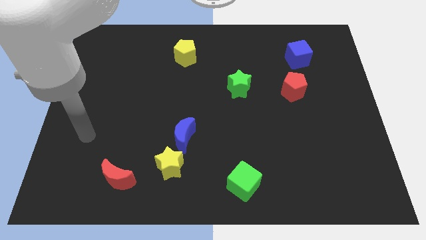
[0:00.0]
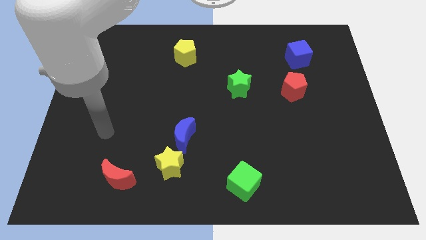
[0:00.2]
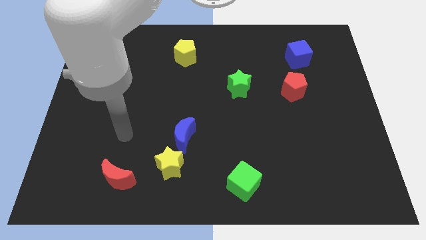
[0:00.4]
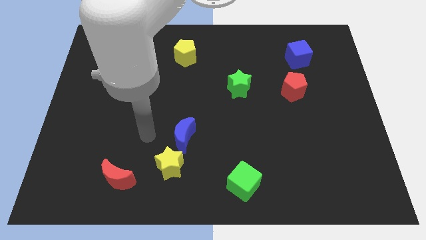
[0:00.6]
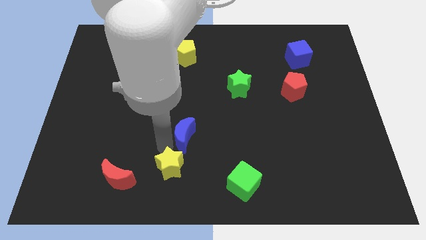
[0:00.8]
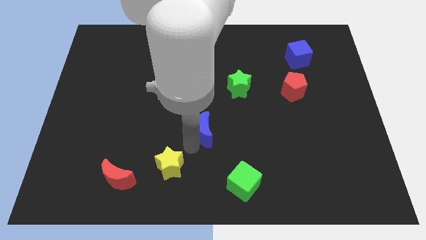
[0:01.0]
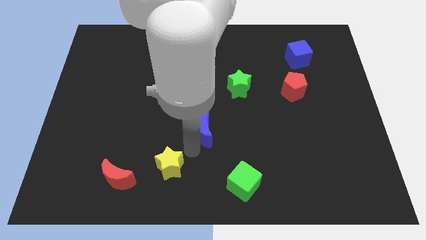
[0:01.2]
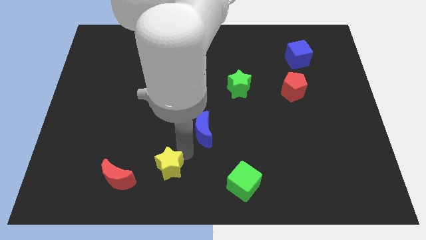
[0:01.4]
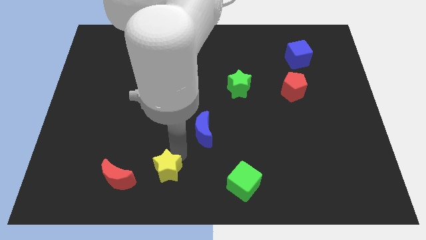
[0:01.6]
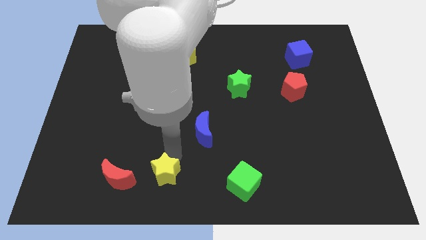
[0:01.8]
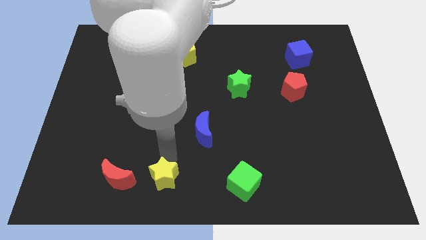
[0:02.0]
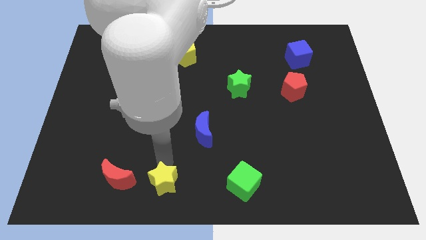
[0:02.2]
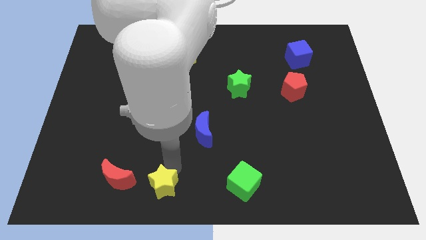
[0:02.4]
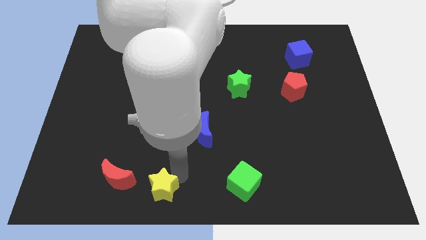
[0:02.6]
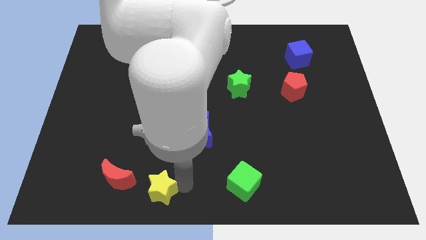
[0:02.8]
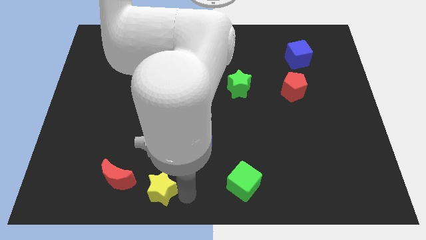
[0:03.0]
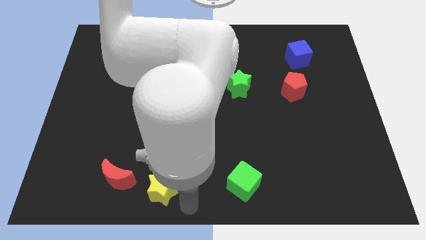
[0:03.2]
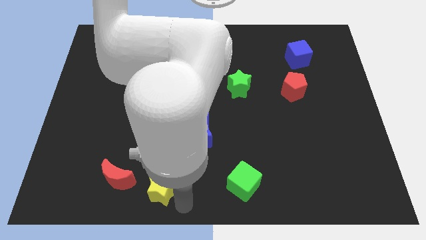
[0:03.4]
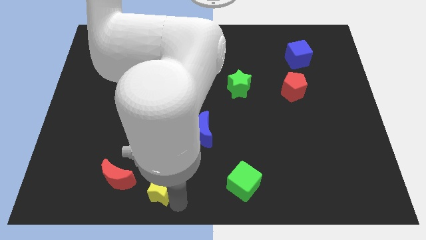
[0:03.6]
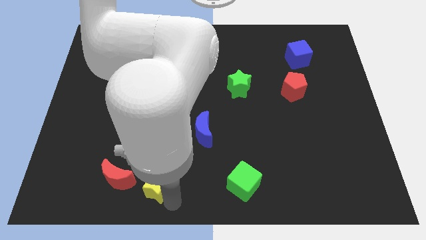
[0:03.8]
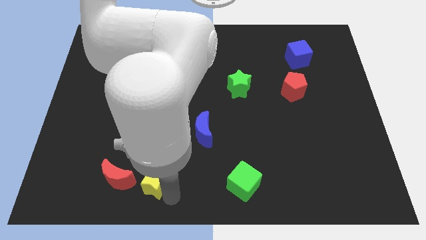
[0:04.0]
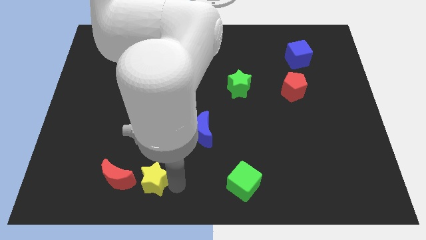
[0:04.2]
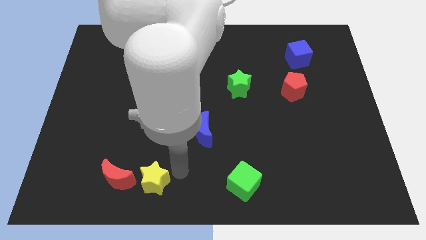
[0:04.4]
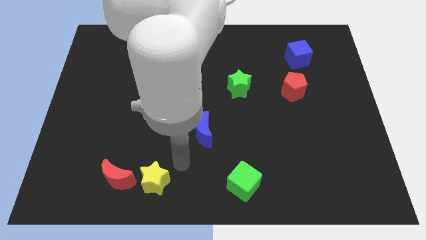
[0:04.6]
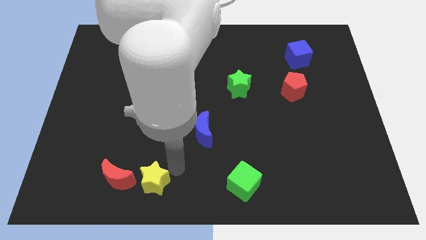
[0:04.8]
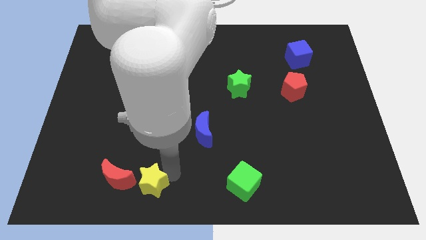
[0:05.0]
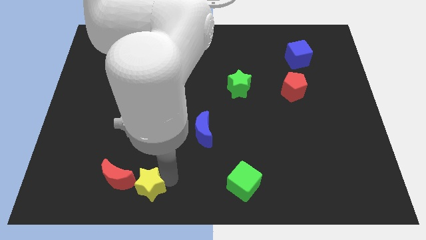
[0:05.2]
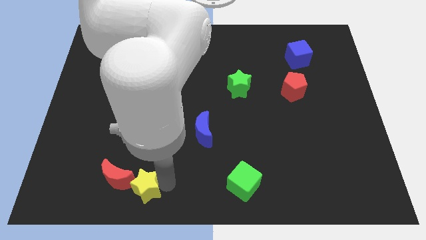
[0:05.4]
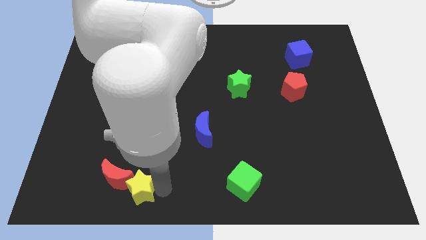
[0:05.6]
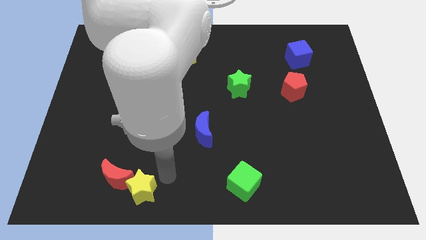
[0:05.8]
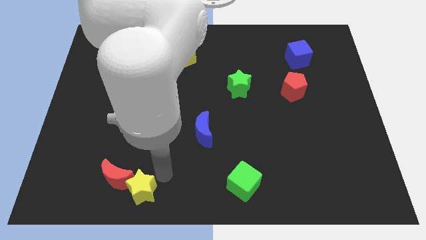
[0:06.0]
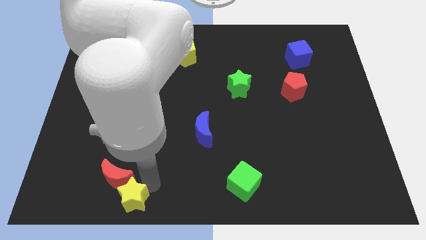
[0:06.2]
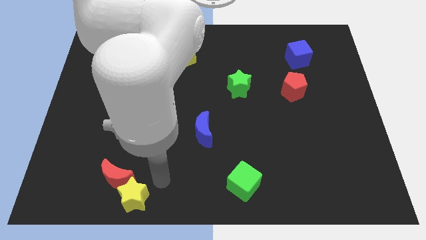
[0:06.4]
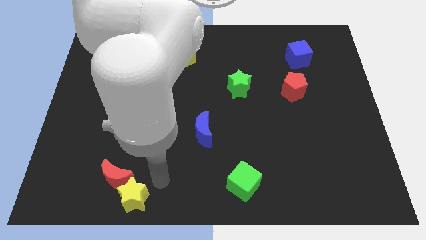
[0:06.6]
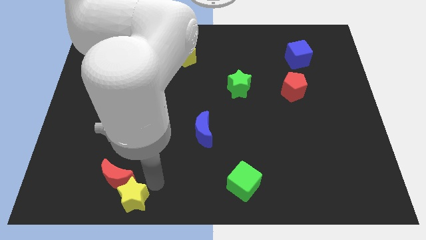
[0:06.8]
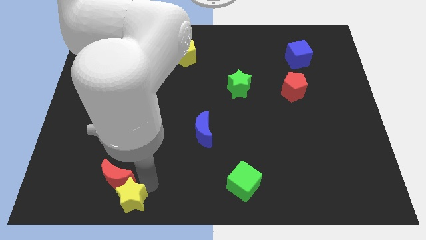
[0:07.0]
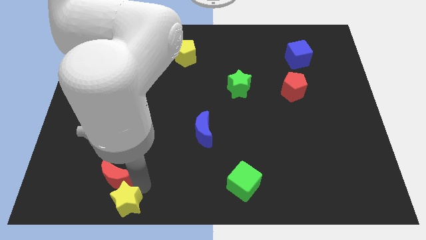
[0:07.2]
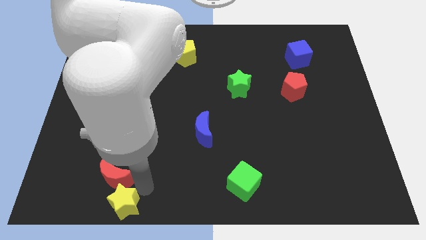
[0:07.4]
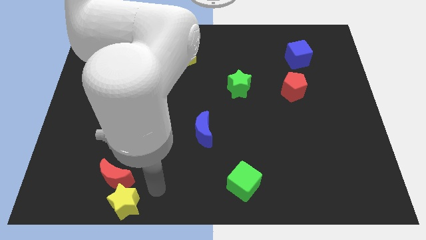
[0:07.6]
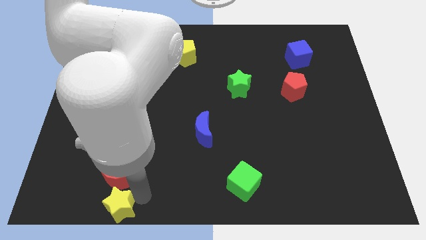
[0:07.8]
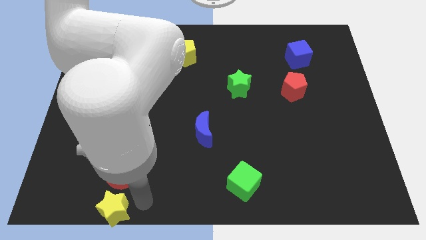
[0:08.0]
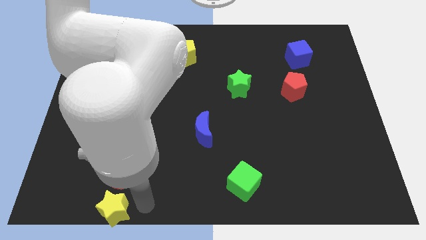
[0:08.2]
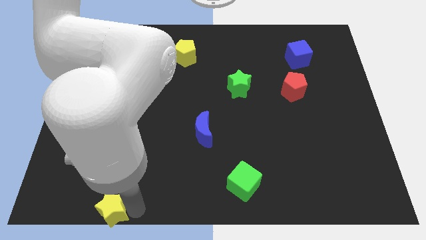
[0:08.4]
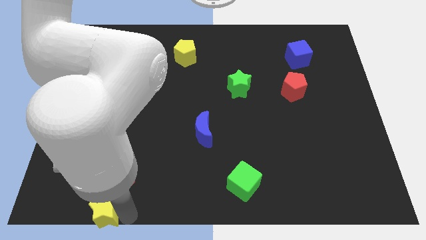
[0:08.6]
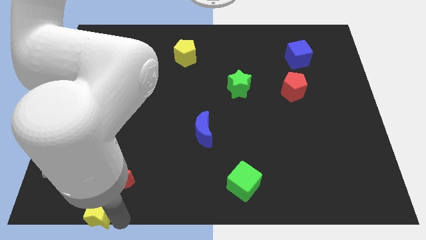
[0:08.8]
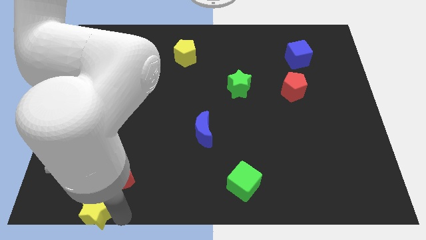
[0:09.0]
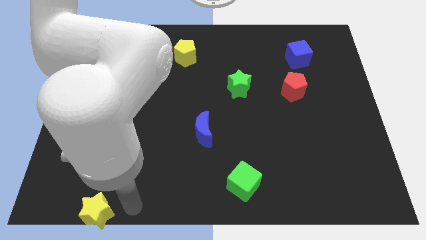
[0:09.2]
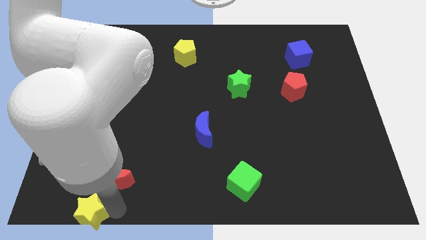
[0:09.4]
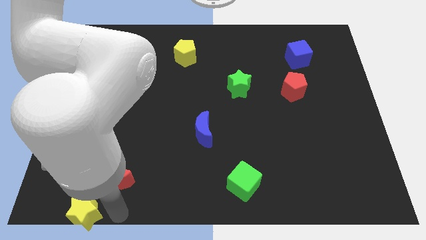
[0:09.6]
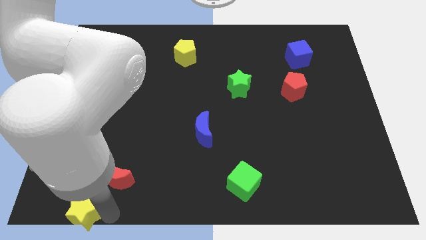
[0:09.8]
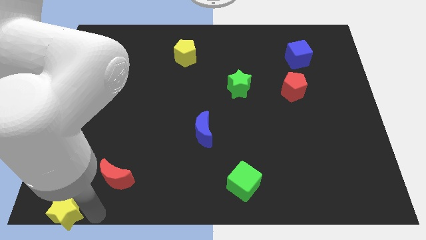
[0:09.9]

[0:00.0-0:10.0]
put the yellow star to the bottom left corner

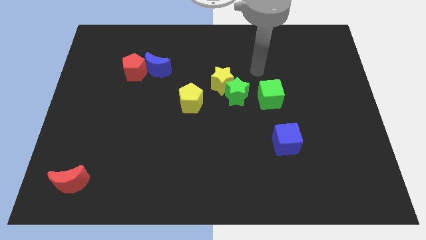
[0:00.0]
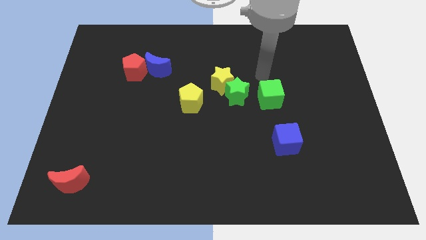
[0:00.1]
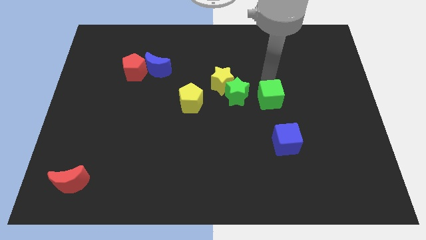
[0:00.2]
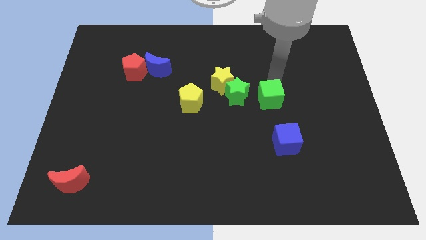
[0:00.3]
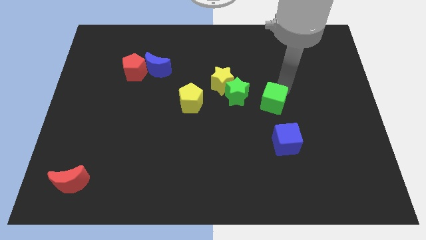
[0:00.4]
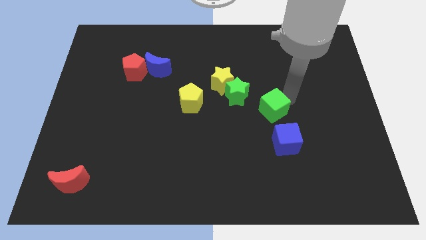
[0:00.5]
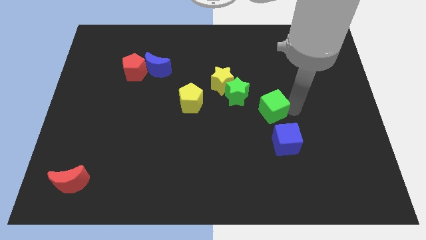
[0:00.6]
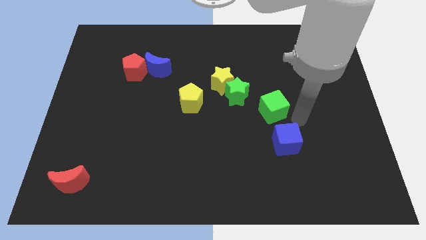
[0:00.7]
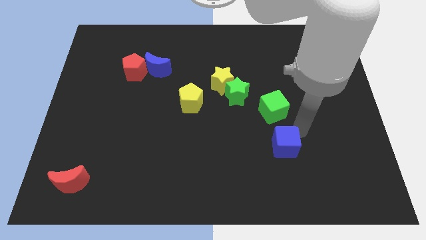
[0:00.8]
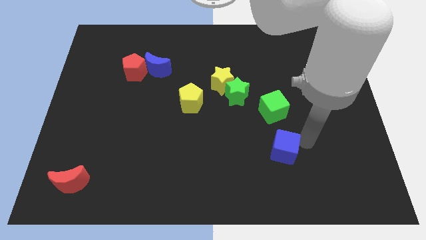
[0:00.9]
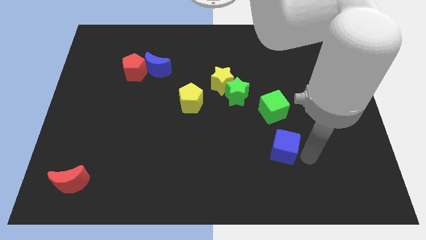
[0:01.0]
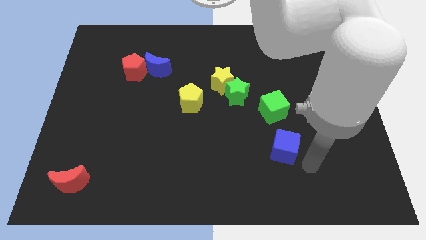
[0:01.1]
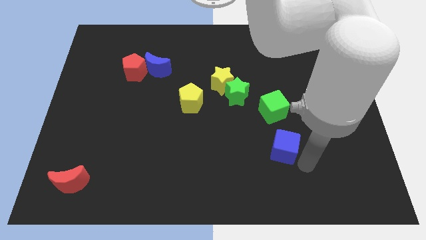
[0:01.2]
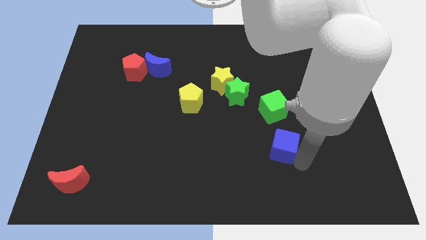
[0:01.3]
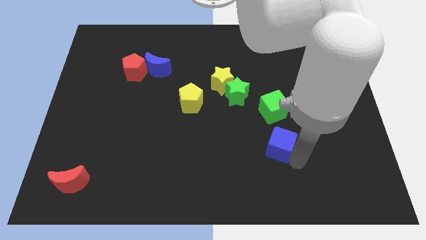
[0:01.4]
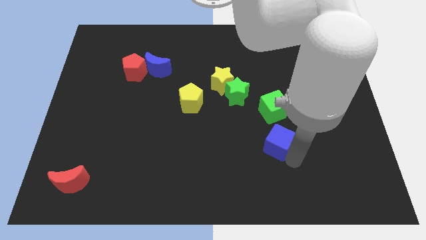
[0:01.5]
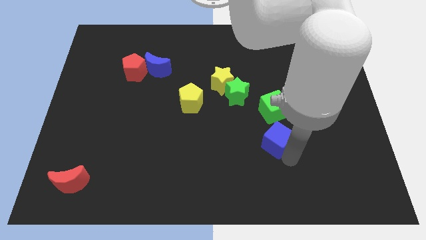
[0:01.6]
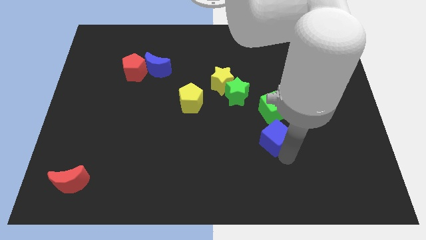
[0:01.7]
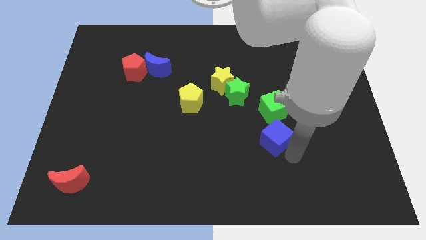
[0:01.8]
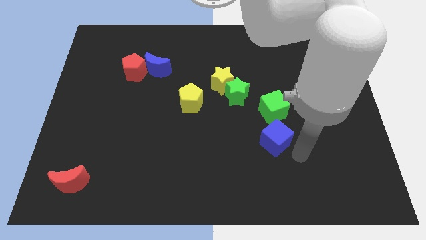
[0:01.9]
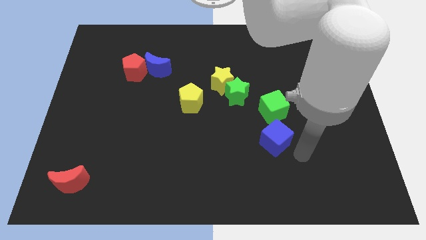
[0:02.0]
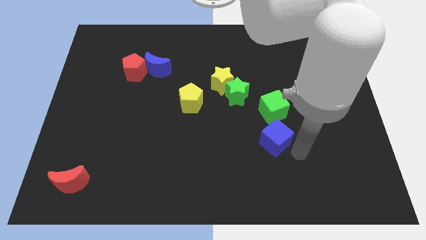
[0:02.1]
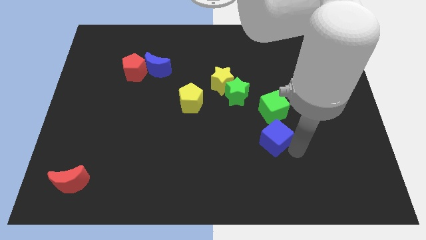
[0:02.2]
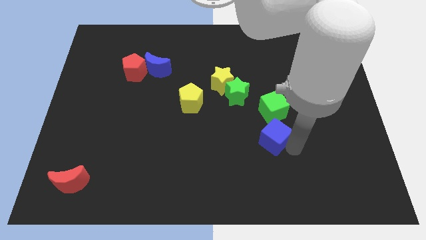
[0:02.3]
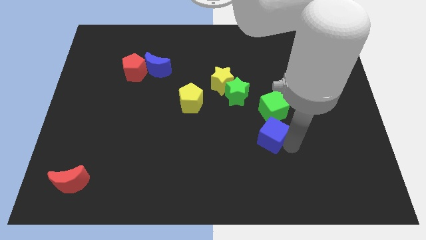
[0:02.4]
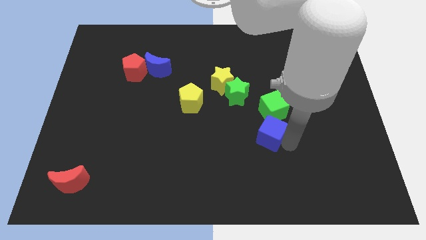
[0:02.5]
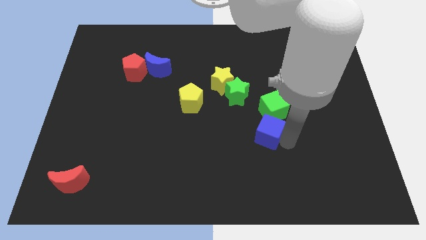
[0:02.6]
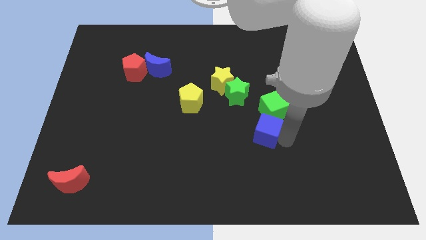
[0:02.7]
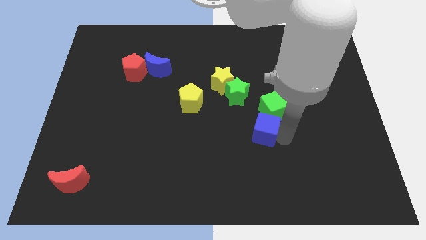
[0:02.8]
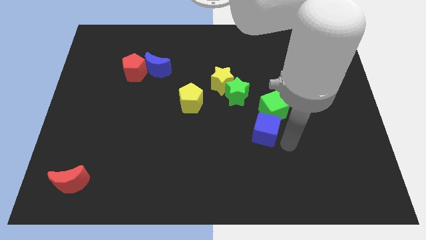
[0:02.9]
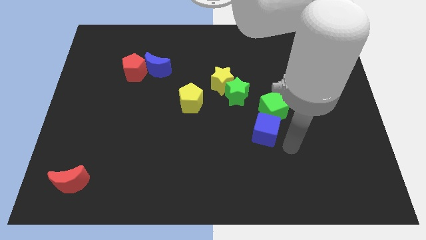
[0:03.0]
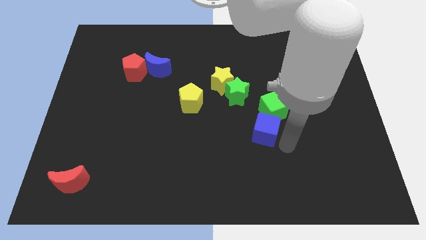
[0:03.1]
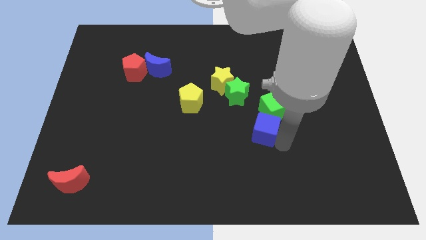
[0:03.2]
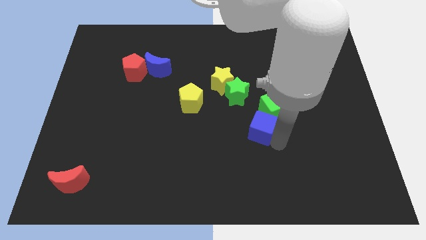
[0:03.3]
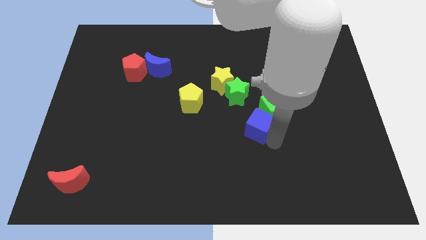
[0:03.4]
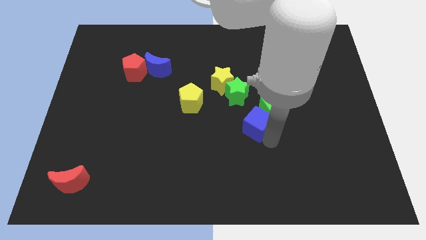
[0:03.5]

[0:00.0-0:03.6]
move the blue cube to the middle of the board
